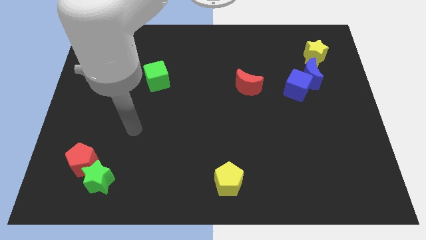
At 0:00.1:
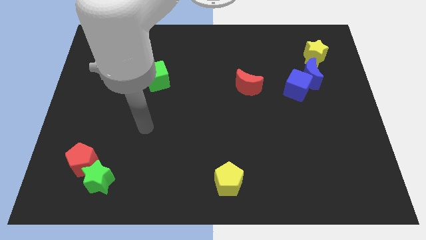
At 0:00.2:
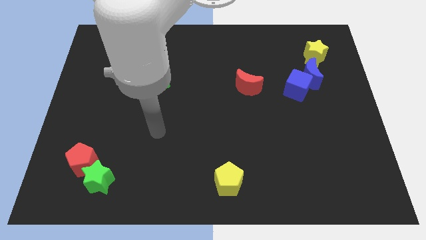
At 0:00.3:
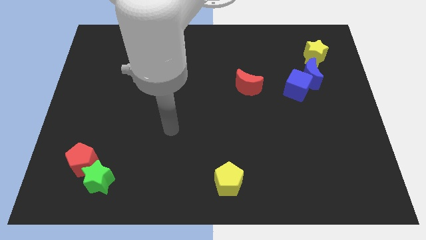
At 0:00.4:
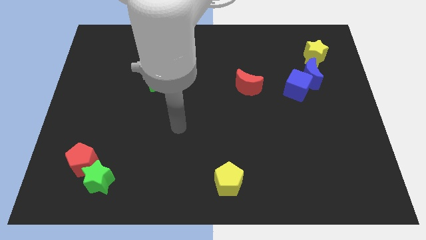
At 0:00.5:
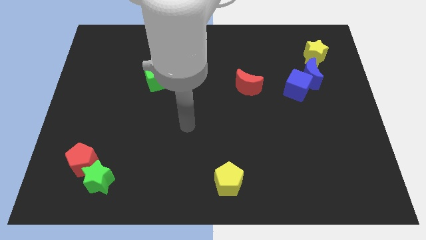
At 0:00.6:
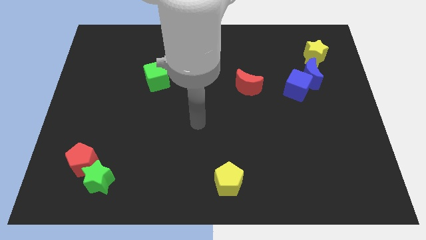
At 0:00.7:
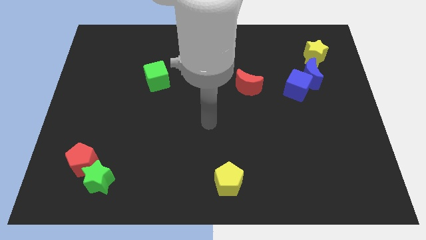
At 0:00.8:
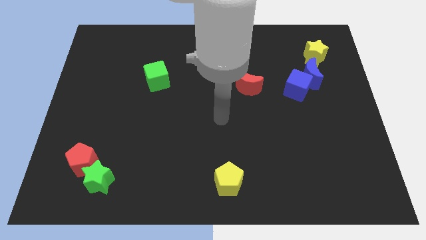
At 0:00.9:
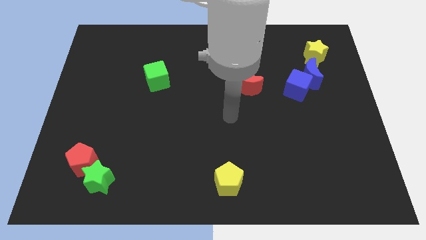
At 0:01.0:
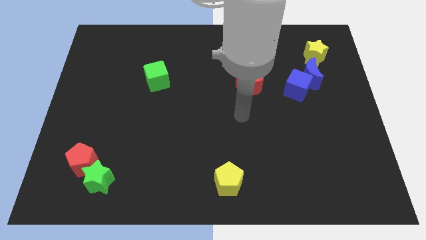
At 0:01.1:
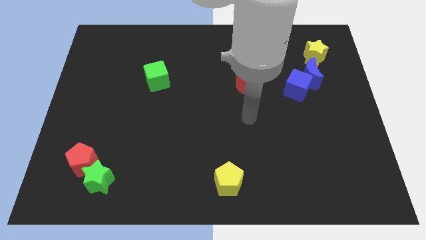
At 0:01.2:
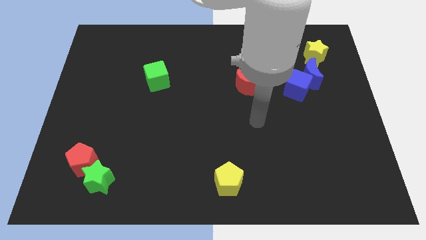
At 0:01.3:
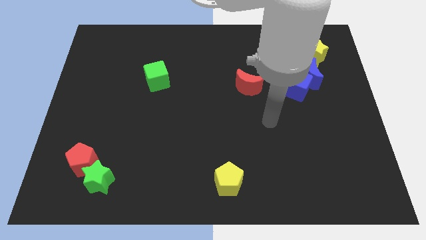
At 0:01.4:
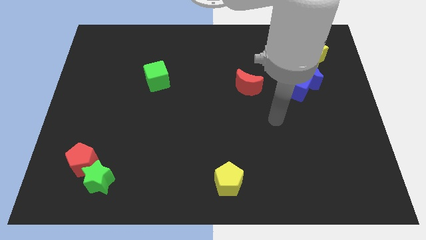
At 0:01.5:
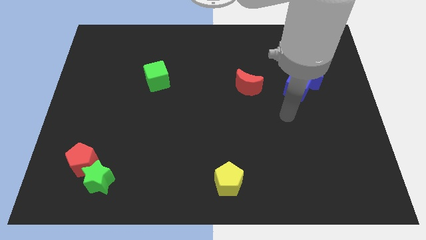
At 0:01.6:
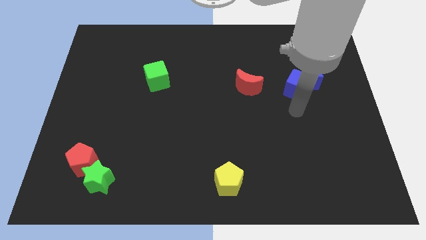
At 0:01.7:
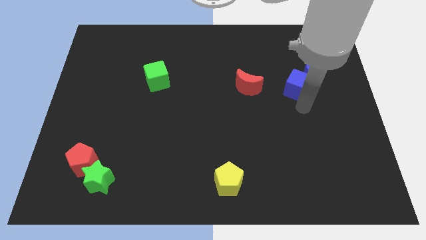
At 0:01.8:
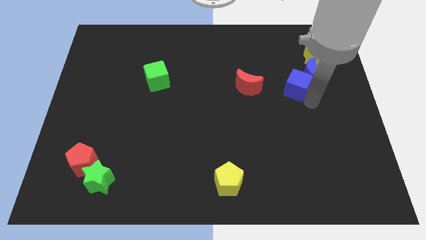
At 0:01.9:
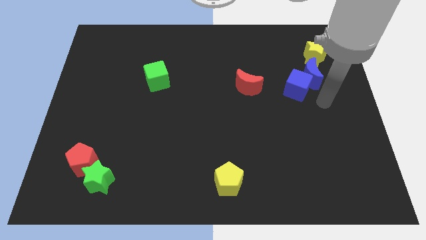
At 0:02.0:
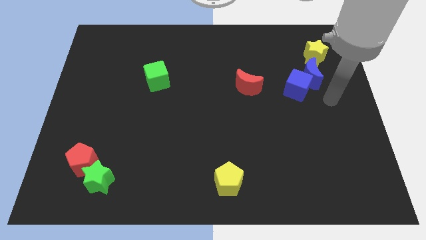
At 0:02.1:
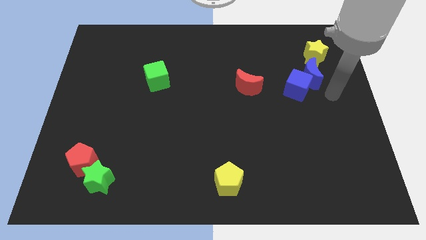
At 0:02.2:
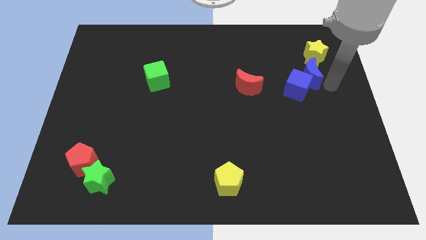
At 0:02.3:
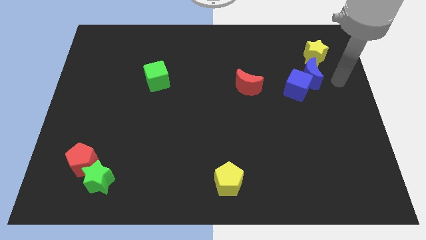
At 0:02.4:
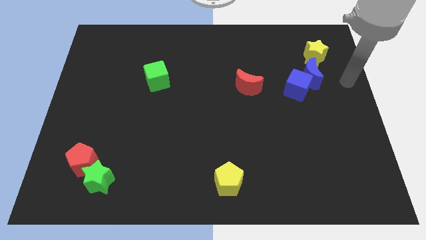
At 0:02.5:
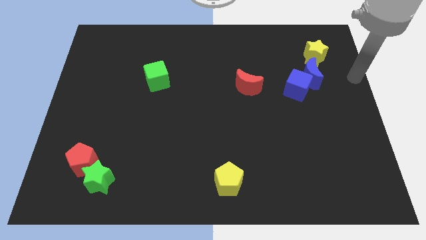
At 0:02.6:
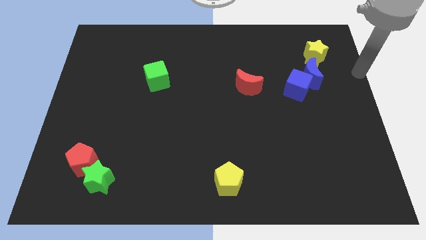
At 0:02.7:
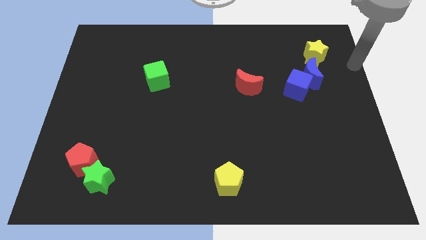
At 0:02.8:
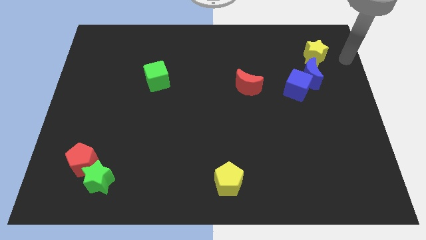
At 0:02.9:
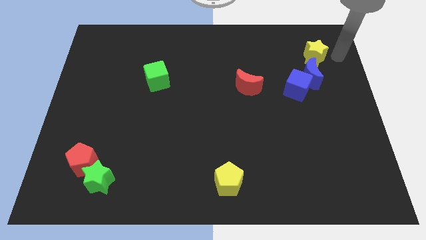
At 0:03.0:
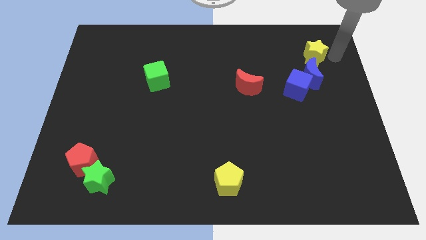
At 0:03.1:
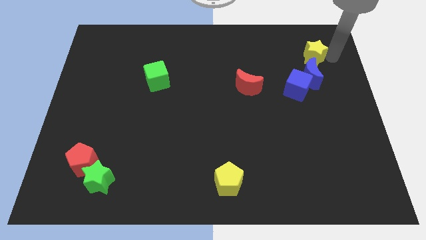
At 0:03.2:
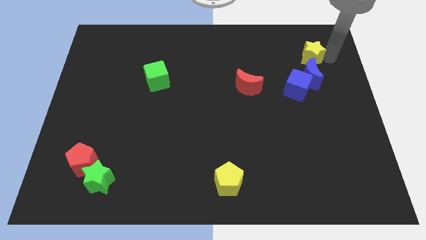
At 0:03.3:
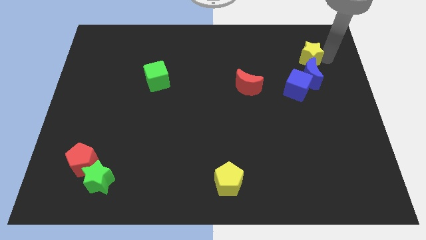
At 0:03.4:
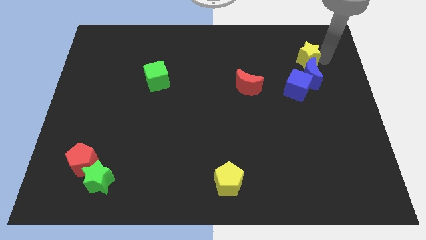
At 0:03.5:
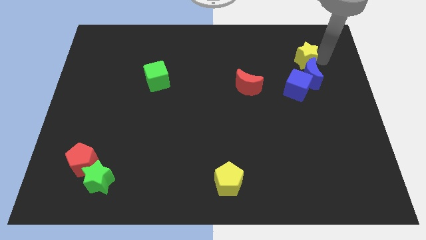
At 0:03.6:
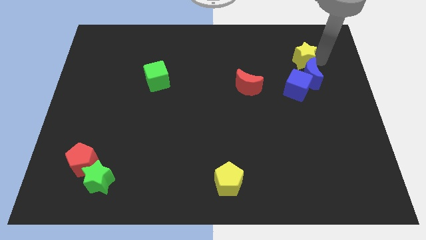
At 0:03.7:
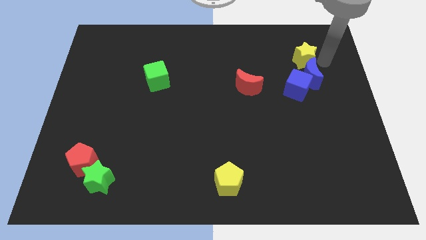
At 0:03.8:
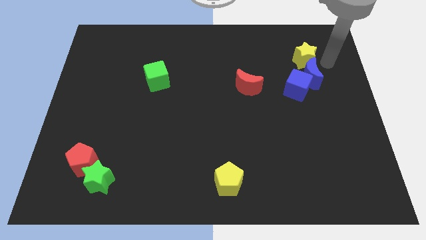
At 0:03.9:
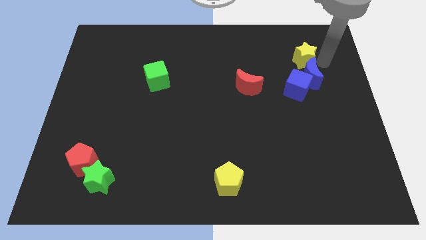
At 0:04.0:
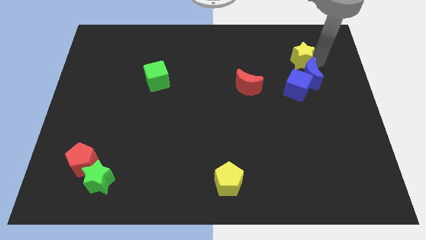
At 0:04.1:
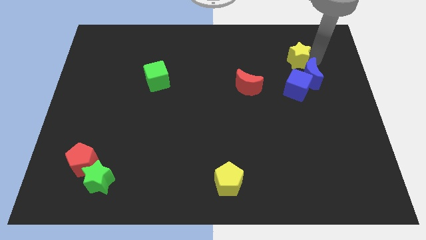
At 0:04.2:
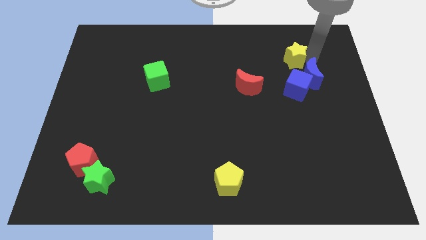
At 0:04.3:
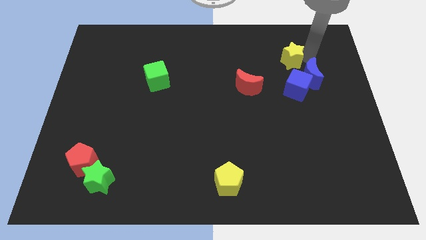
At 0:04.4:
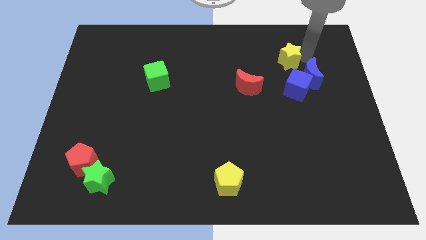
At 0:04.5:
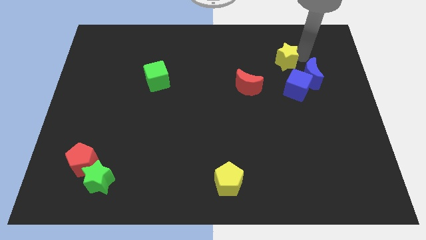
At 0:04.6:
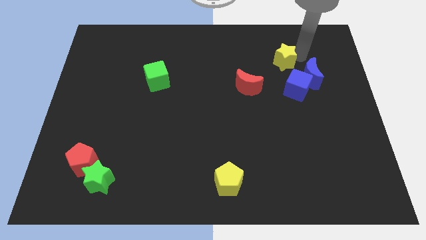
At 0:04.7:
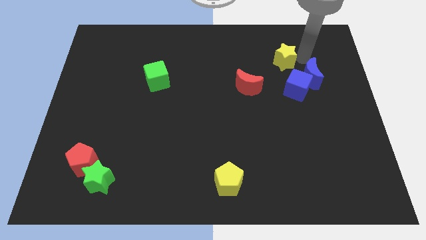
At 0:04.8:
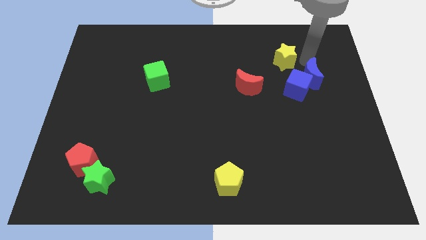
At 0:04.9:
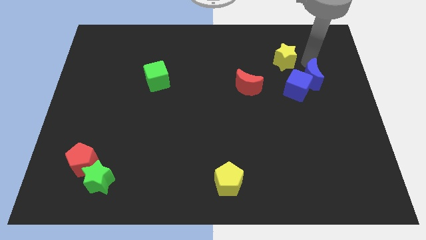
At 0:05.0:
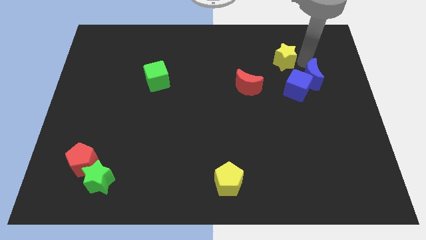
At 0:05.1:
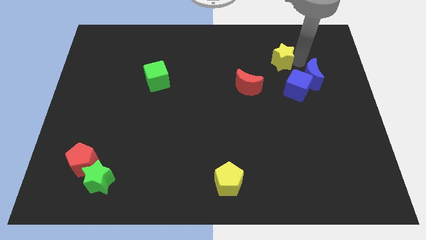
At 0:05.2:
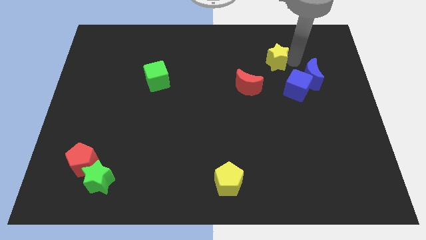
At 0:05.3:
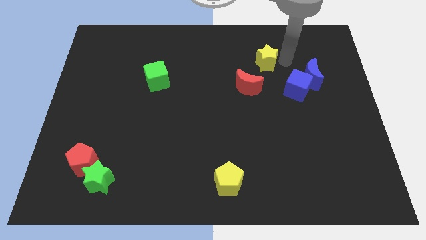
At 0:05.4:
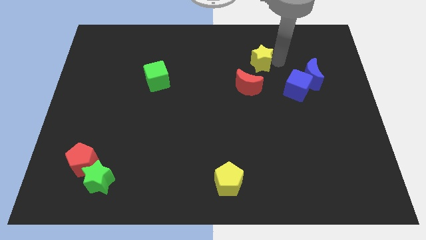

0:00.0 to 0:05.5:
put the yellow star to the top of the red moon

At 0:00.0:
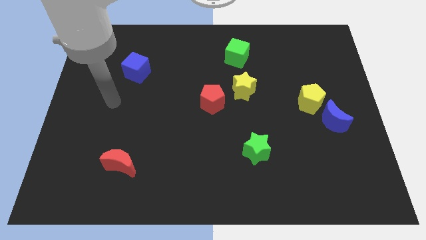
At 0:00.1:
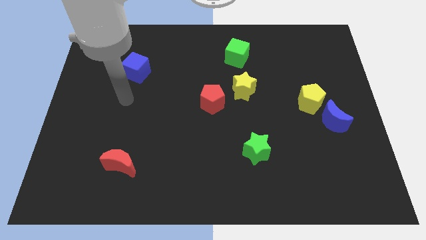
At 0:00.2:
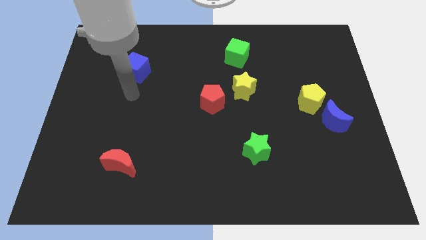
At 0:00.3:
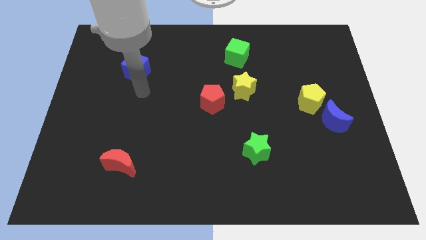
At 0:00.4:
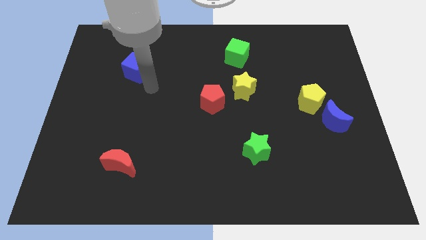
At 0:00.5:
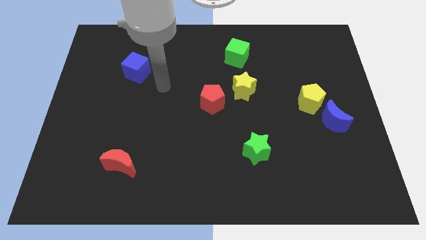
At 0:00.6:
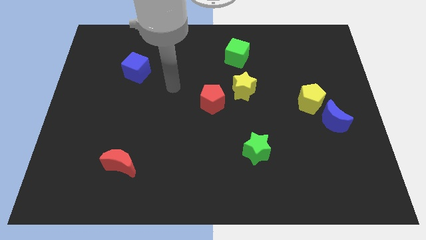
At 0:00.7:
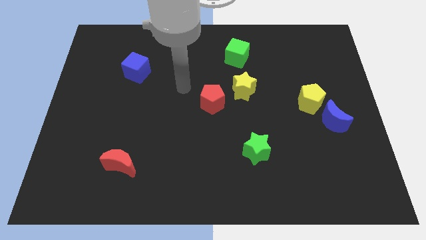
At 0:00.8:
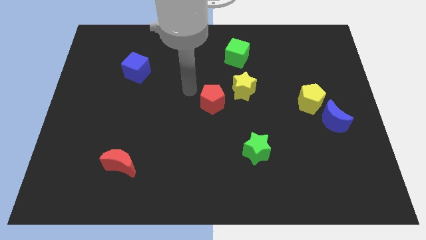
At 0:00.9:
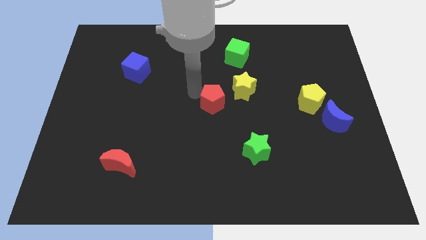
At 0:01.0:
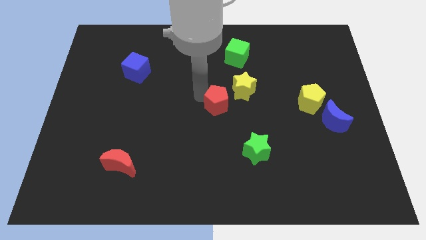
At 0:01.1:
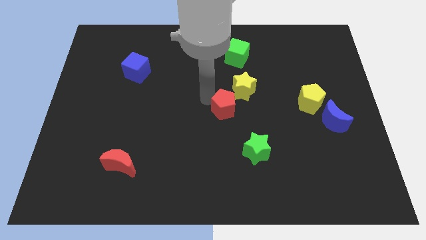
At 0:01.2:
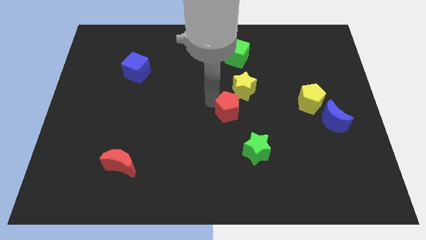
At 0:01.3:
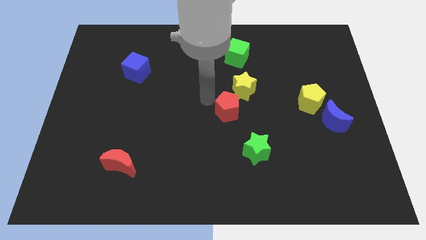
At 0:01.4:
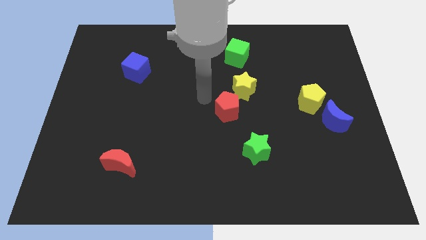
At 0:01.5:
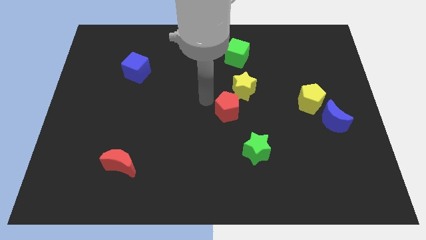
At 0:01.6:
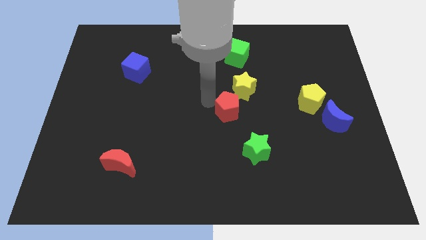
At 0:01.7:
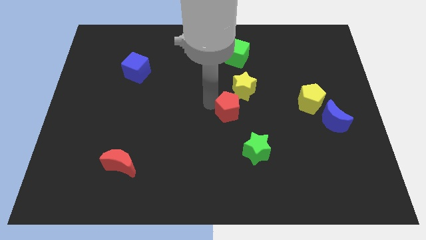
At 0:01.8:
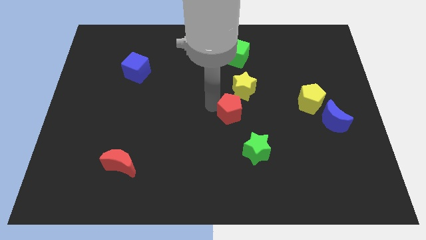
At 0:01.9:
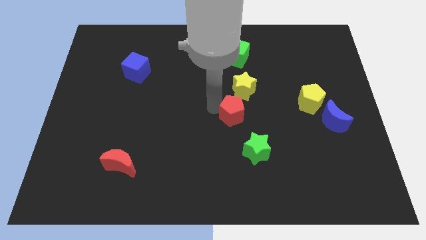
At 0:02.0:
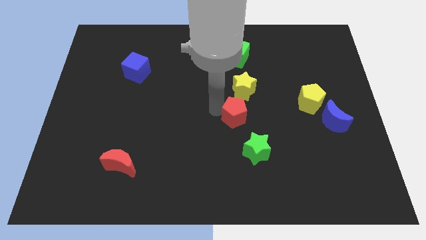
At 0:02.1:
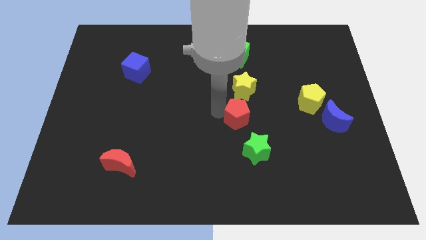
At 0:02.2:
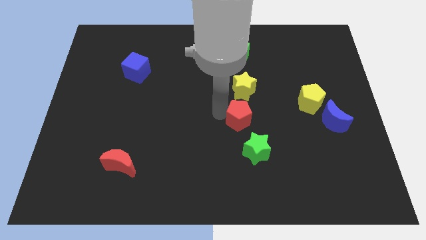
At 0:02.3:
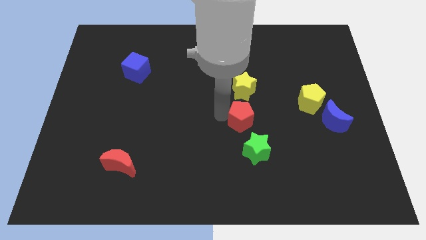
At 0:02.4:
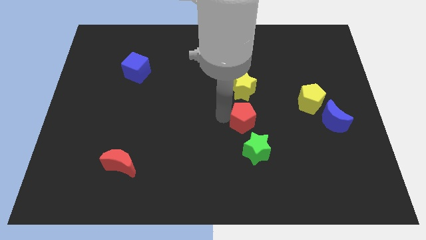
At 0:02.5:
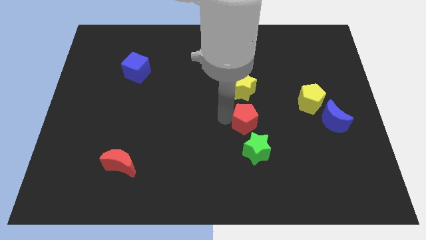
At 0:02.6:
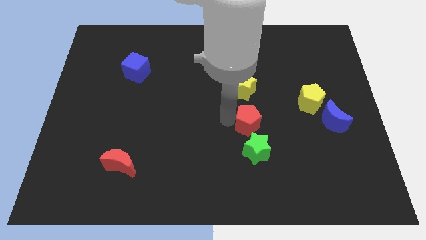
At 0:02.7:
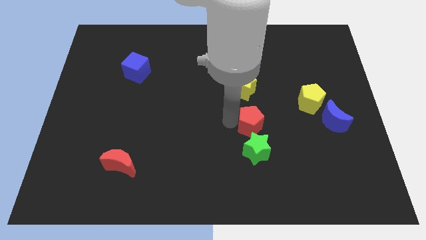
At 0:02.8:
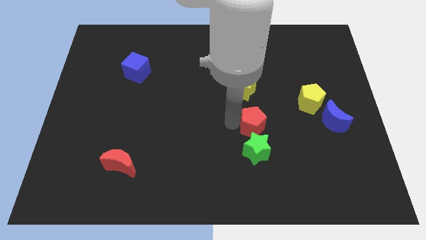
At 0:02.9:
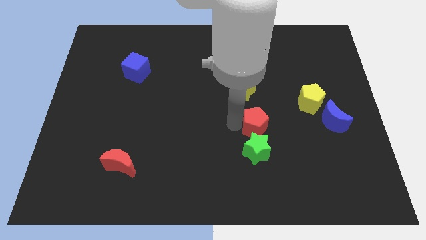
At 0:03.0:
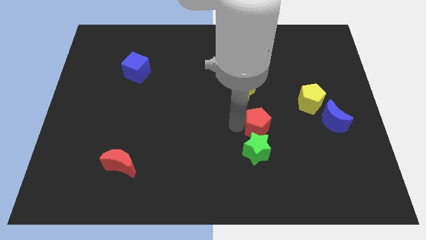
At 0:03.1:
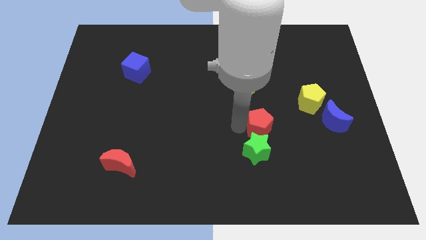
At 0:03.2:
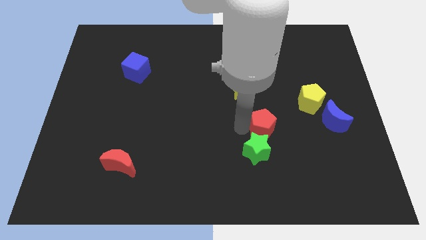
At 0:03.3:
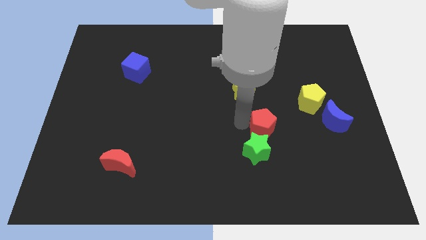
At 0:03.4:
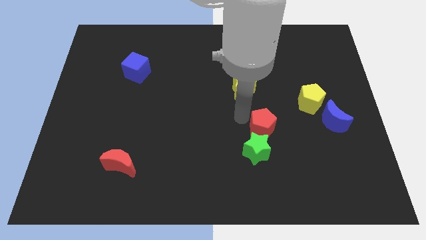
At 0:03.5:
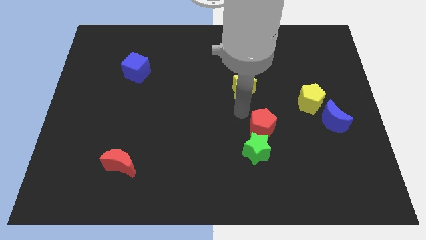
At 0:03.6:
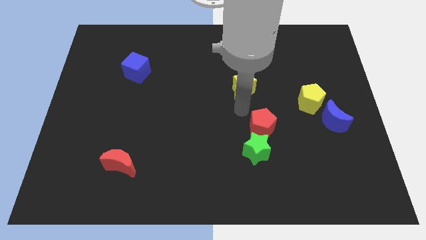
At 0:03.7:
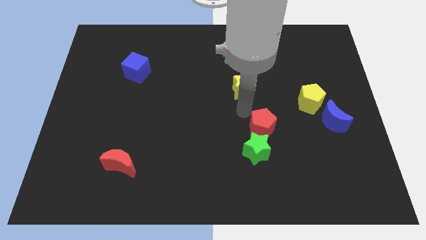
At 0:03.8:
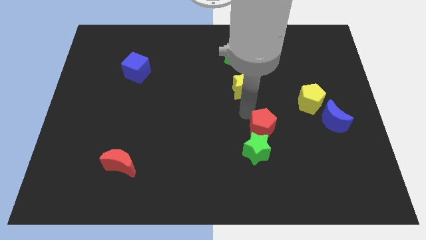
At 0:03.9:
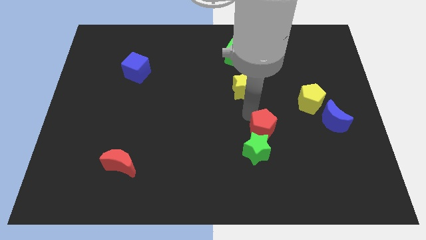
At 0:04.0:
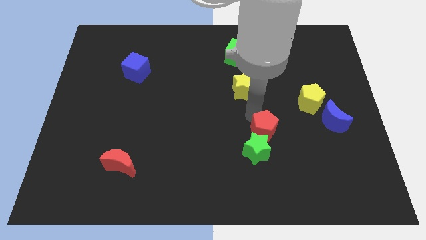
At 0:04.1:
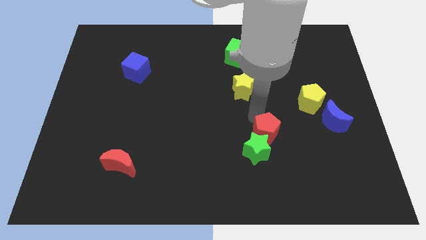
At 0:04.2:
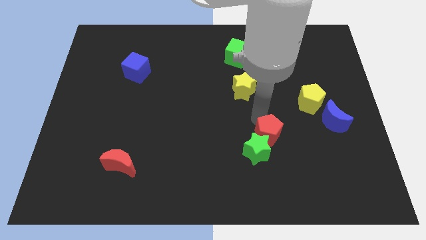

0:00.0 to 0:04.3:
move the red pentagon to the right of the green star
